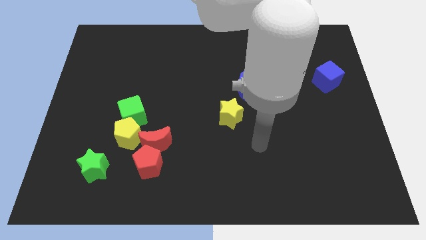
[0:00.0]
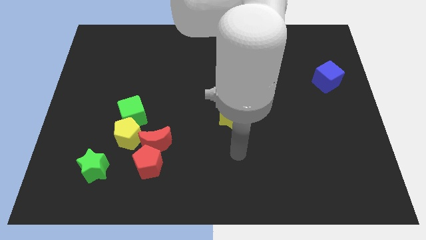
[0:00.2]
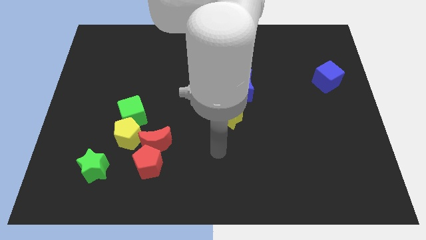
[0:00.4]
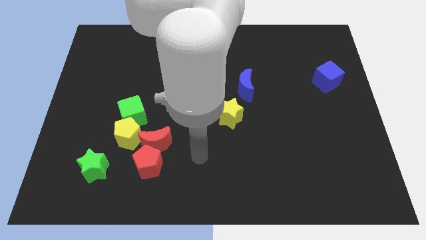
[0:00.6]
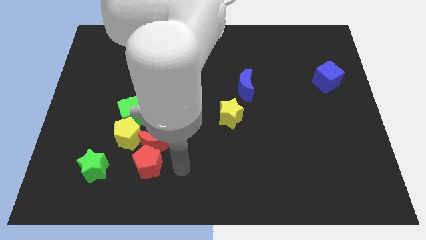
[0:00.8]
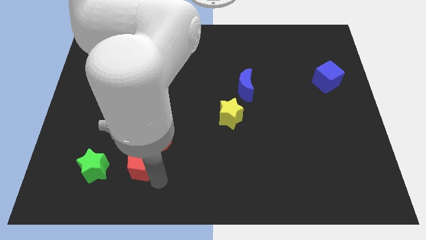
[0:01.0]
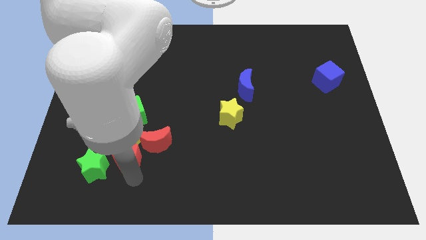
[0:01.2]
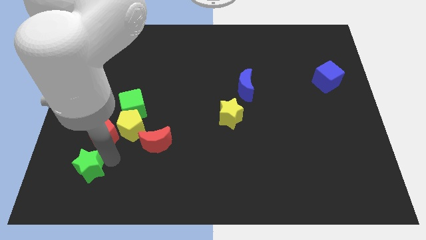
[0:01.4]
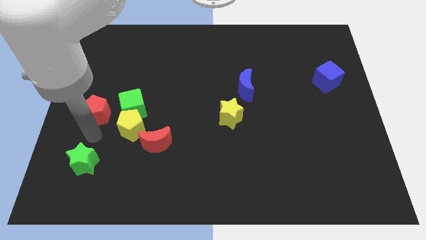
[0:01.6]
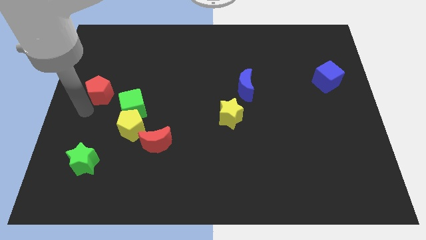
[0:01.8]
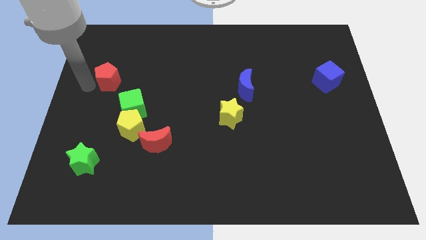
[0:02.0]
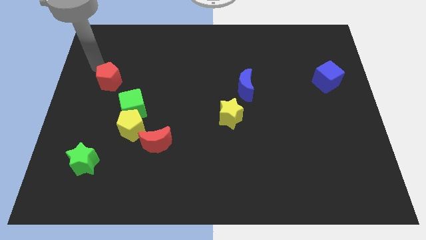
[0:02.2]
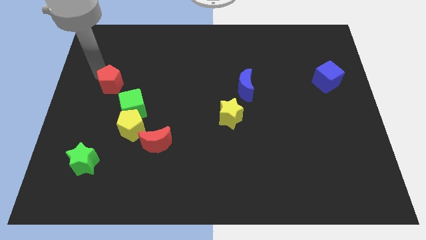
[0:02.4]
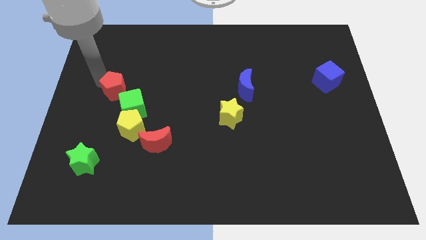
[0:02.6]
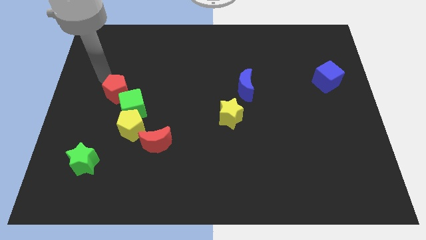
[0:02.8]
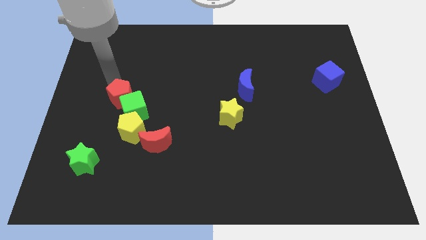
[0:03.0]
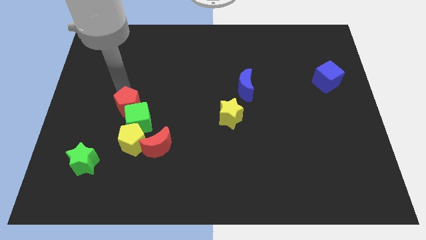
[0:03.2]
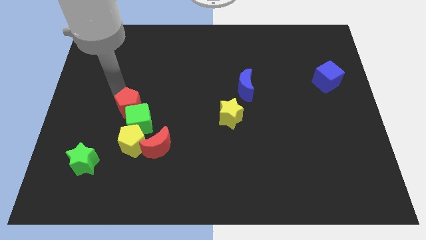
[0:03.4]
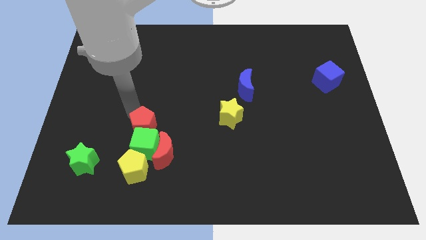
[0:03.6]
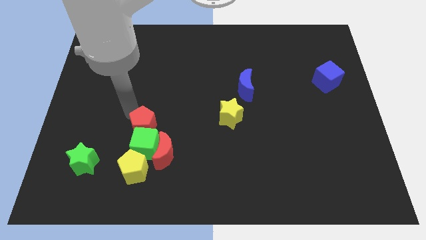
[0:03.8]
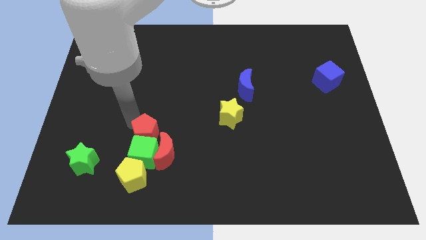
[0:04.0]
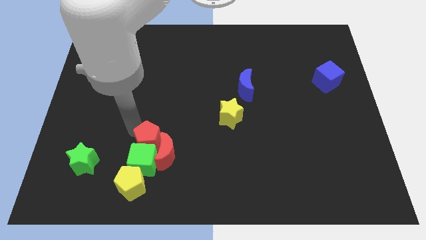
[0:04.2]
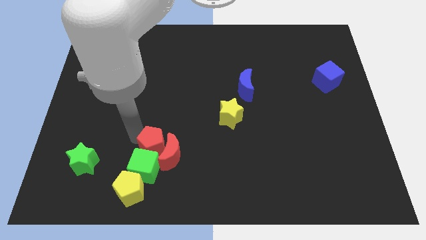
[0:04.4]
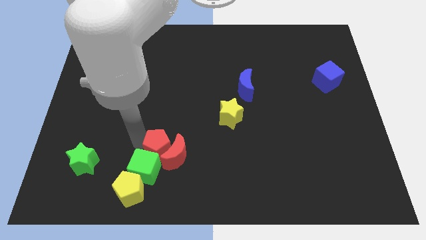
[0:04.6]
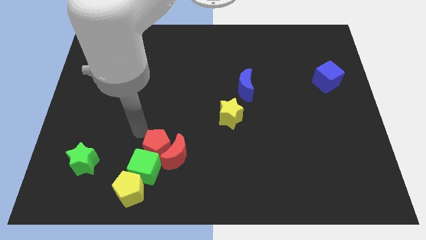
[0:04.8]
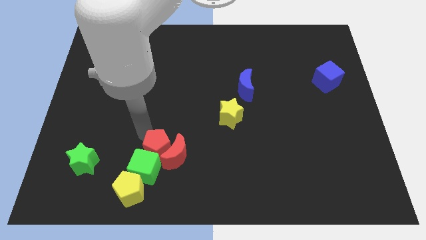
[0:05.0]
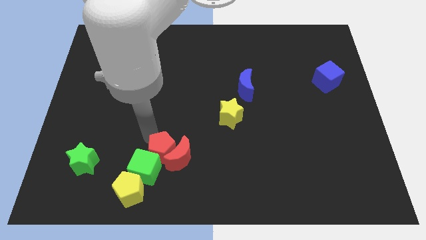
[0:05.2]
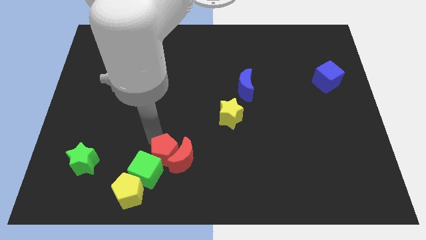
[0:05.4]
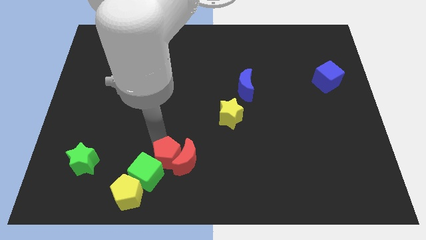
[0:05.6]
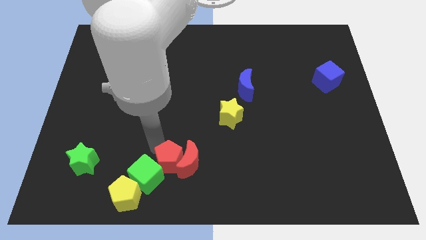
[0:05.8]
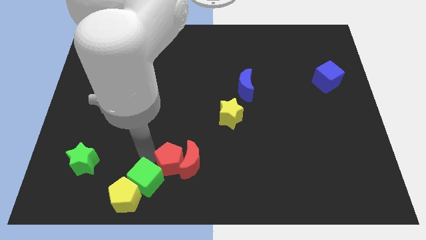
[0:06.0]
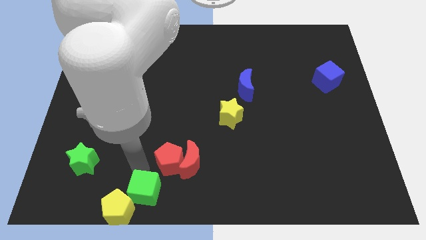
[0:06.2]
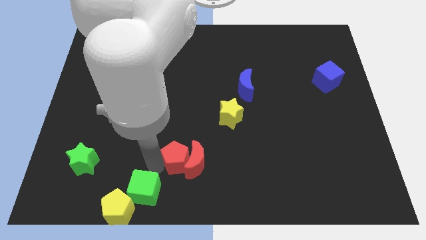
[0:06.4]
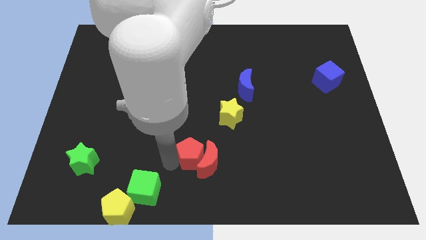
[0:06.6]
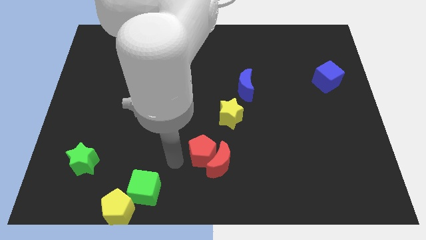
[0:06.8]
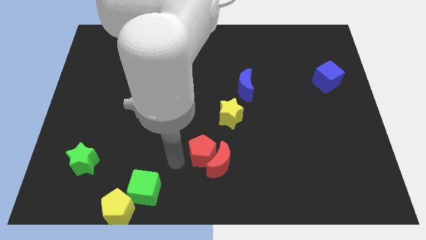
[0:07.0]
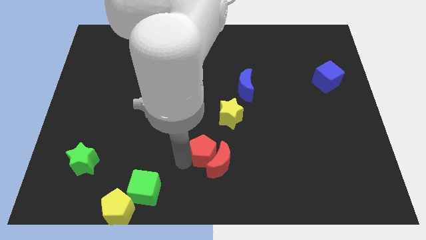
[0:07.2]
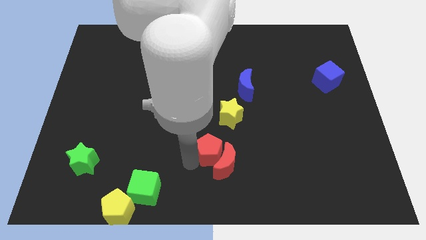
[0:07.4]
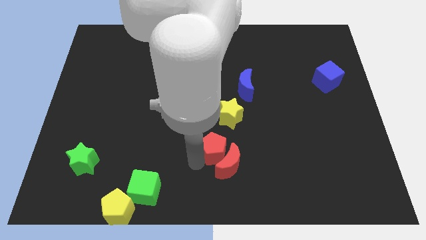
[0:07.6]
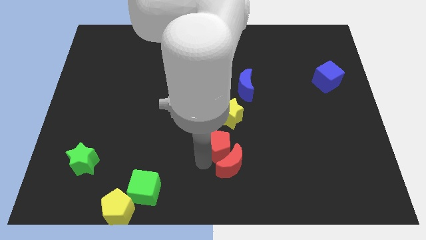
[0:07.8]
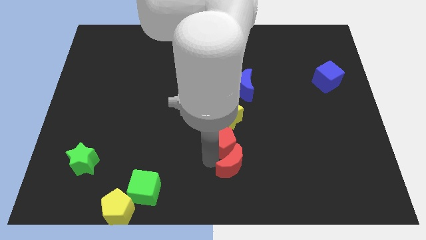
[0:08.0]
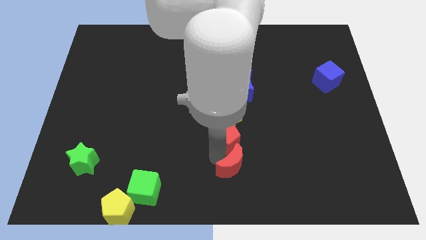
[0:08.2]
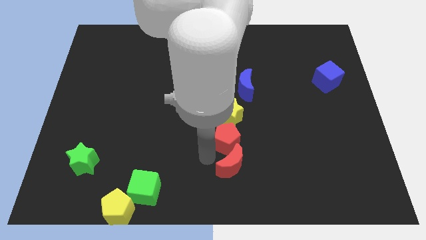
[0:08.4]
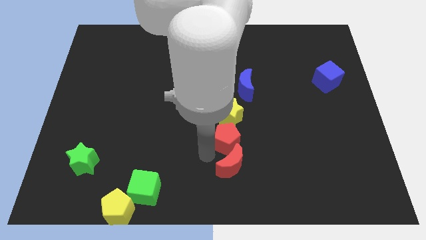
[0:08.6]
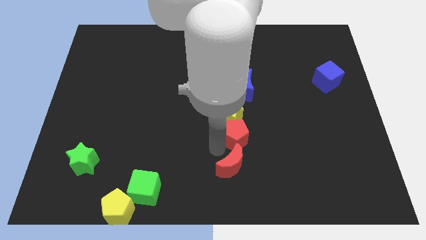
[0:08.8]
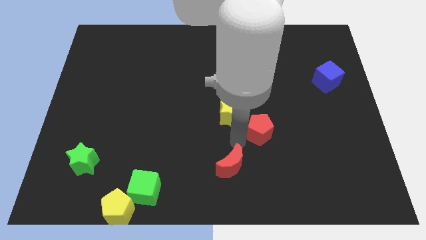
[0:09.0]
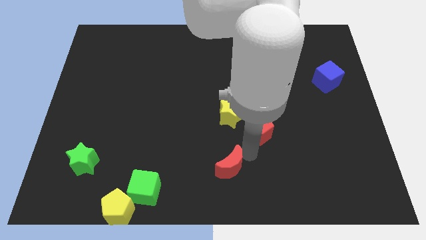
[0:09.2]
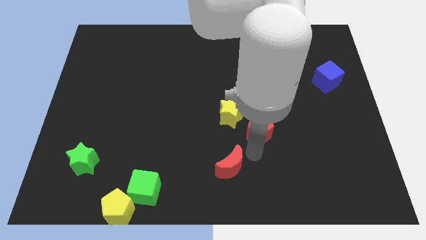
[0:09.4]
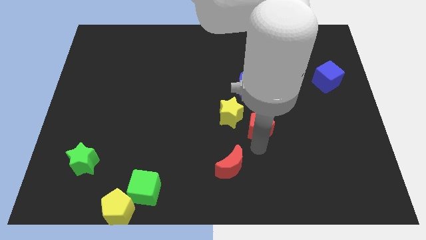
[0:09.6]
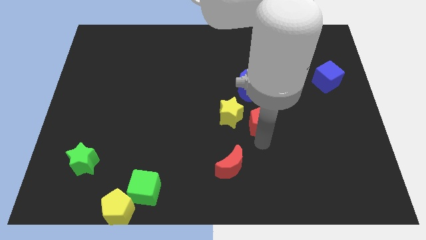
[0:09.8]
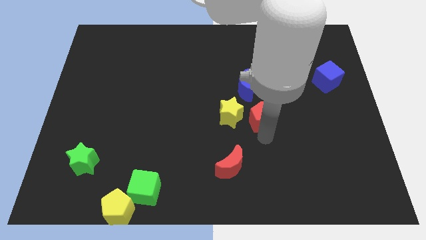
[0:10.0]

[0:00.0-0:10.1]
move the red pentagon diagonally down and to the right of the blue moon

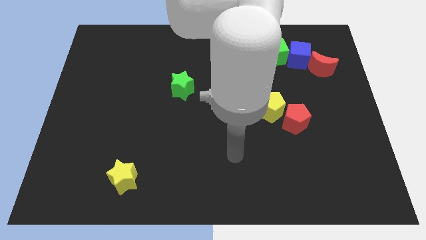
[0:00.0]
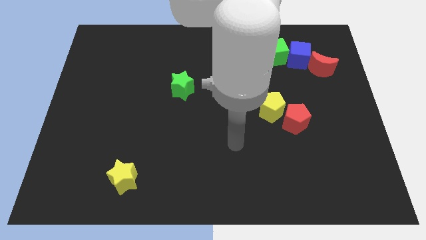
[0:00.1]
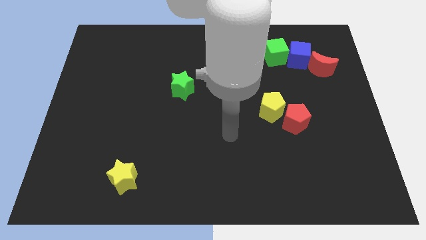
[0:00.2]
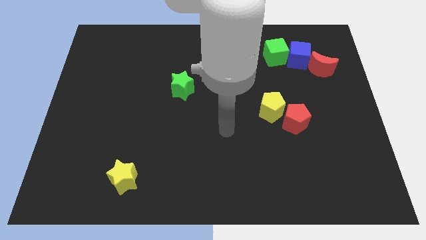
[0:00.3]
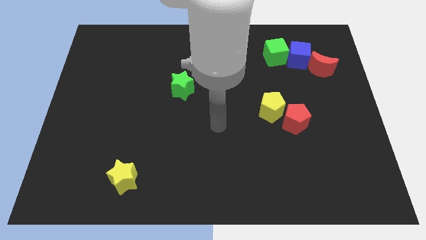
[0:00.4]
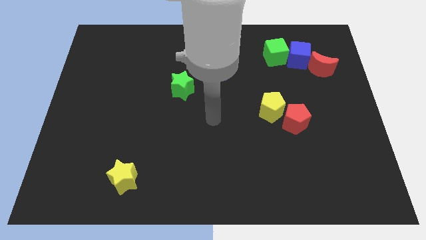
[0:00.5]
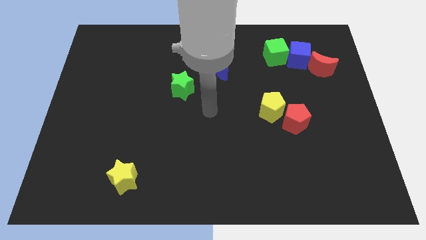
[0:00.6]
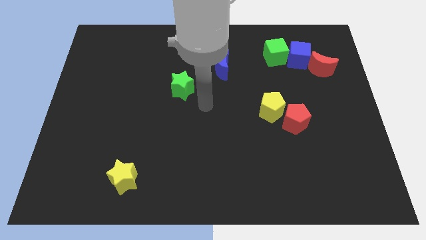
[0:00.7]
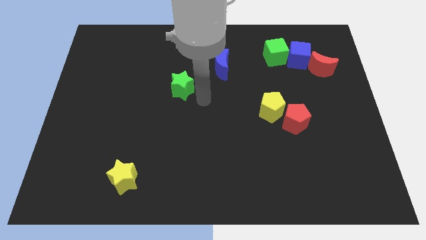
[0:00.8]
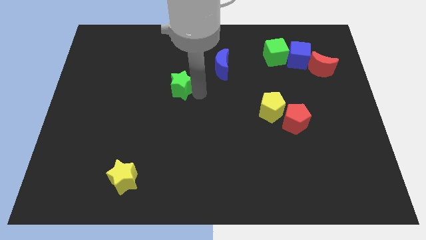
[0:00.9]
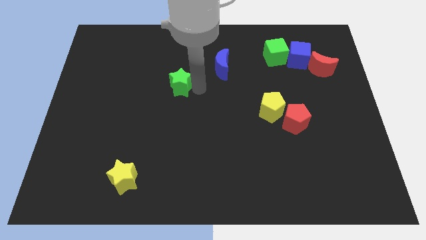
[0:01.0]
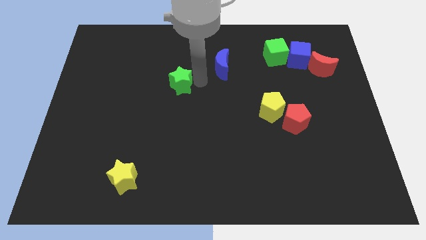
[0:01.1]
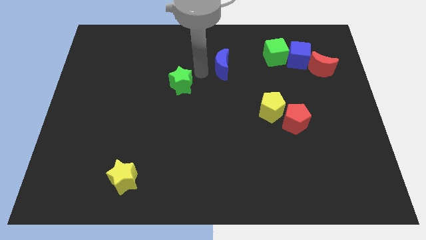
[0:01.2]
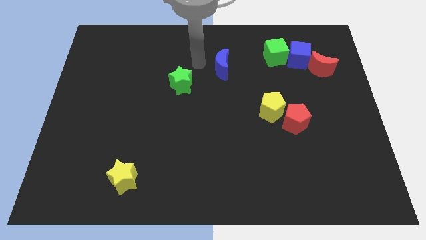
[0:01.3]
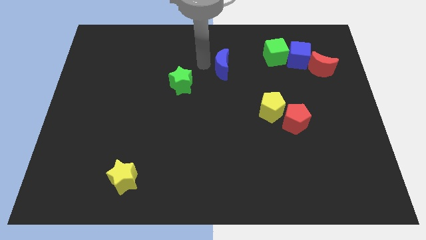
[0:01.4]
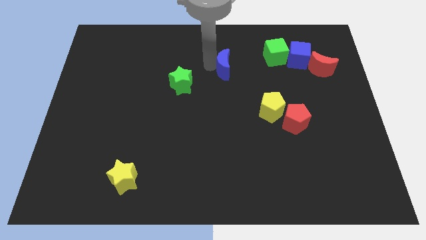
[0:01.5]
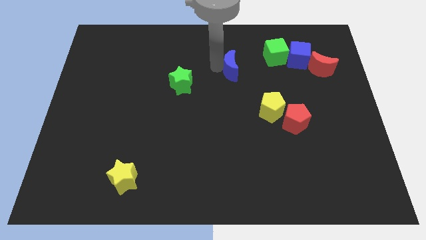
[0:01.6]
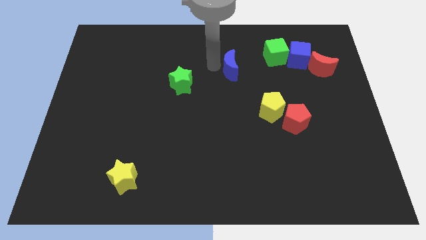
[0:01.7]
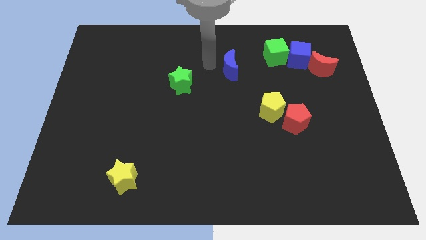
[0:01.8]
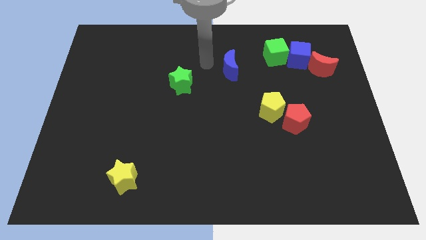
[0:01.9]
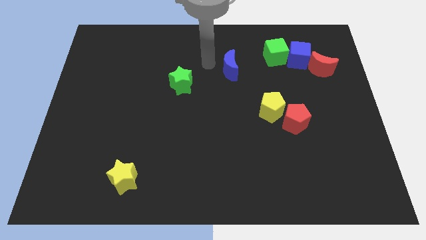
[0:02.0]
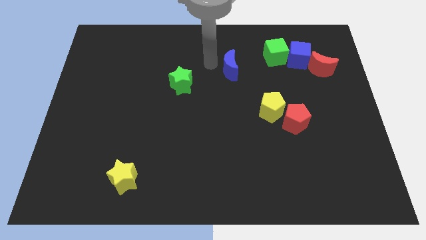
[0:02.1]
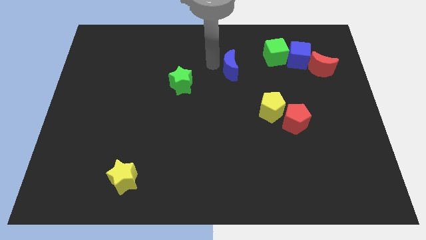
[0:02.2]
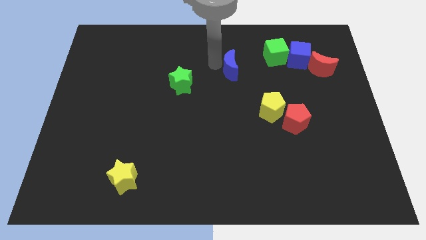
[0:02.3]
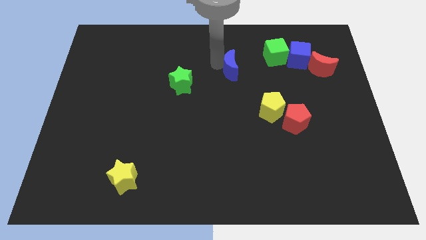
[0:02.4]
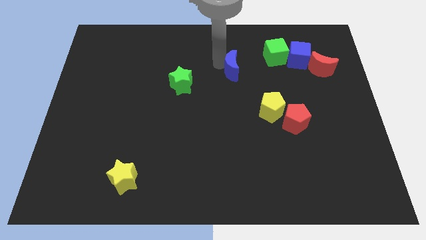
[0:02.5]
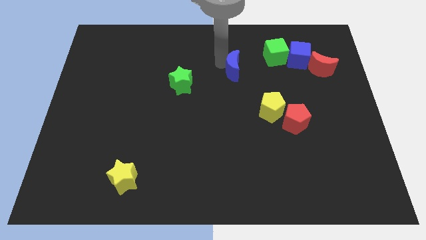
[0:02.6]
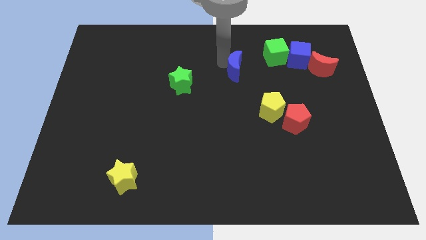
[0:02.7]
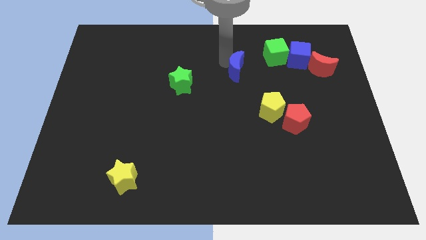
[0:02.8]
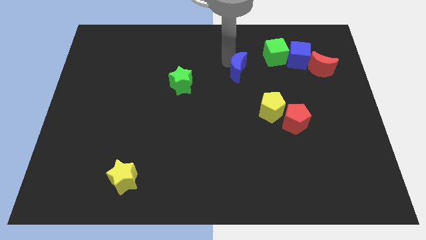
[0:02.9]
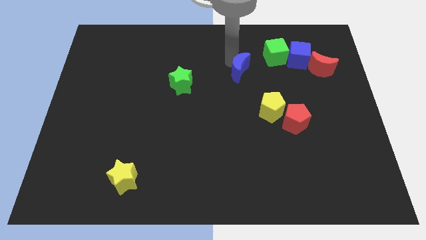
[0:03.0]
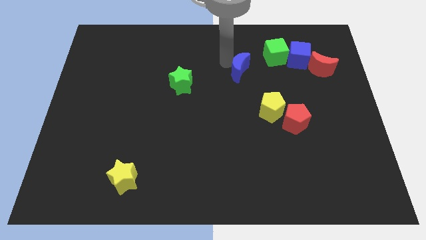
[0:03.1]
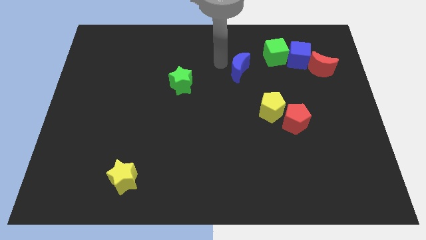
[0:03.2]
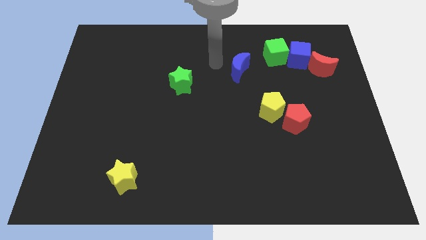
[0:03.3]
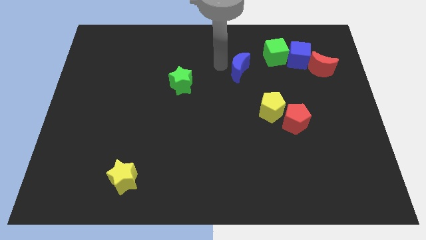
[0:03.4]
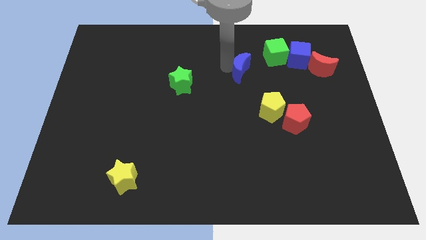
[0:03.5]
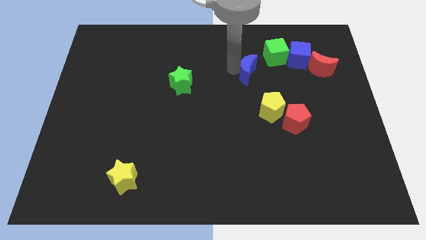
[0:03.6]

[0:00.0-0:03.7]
move the blue moon above the yellow pentagon
